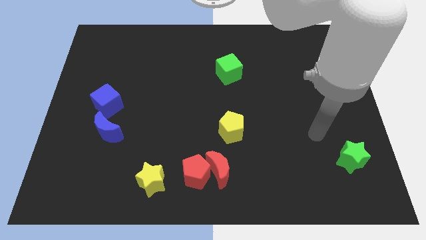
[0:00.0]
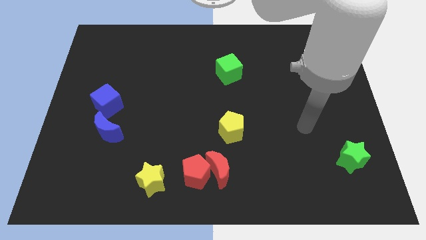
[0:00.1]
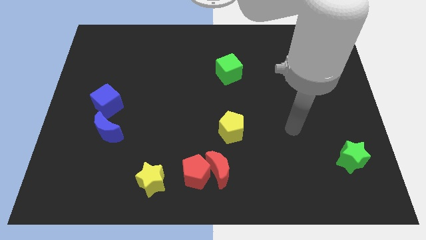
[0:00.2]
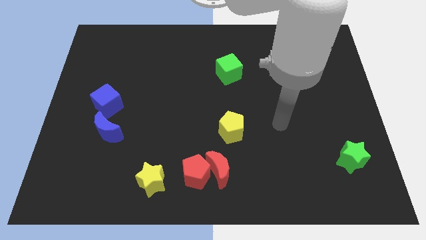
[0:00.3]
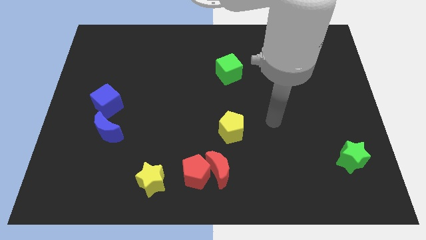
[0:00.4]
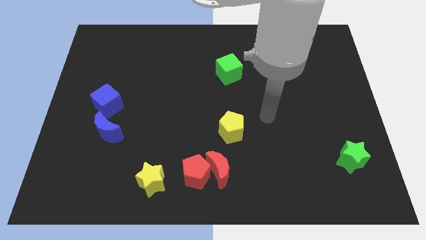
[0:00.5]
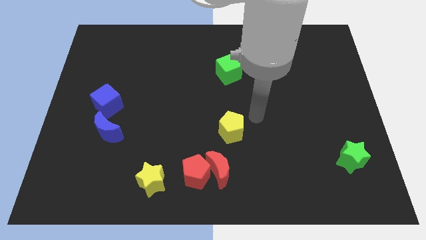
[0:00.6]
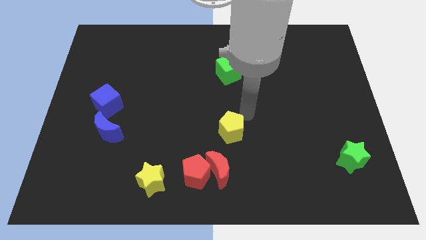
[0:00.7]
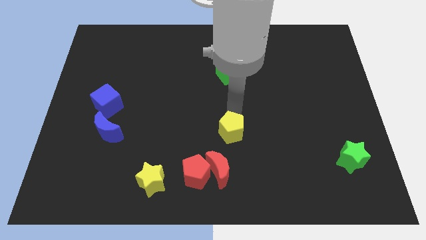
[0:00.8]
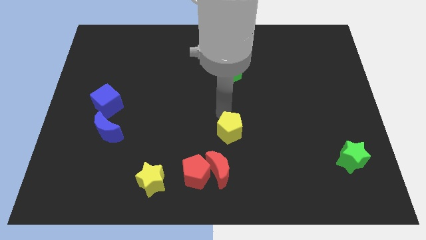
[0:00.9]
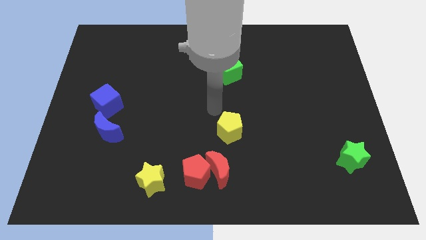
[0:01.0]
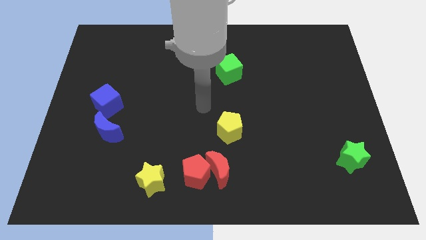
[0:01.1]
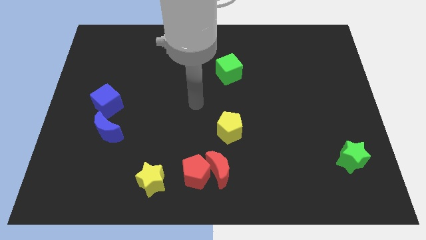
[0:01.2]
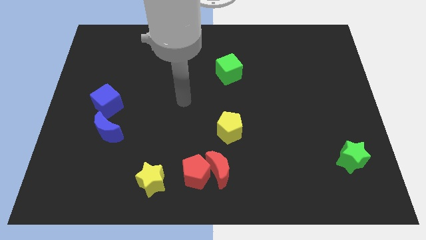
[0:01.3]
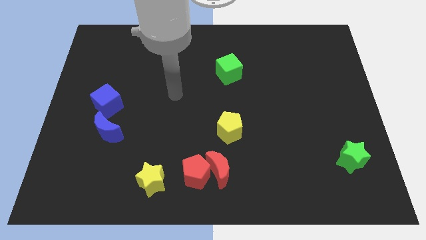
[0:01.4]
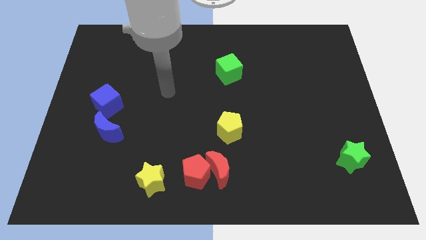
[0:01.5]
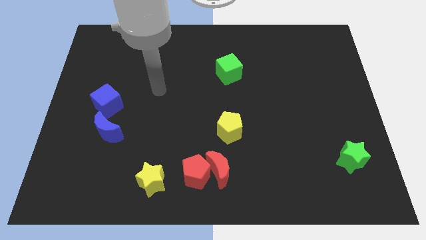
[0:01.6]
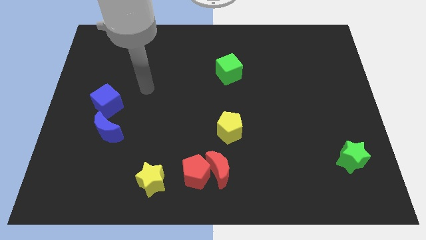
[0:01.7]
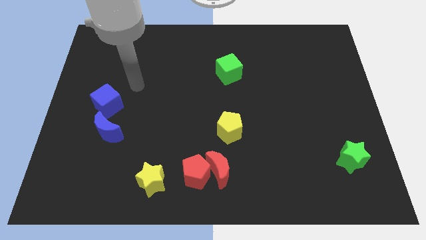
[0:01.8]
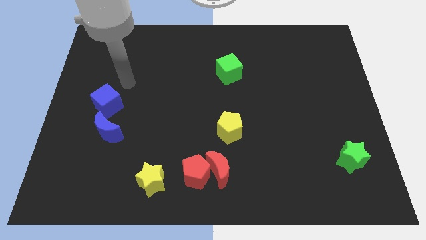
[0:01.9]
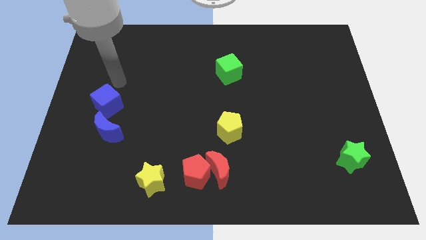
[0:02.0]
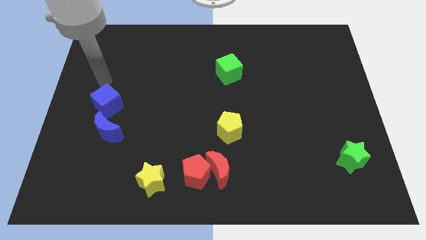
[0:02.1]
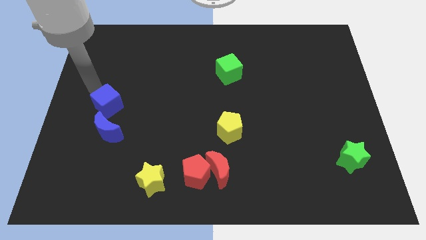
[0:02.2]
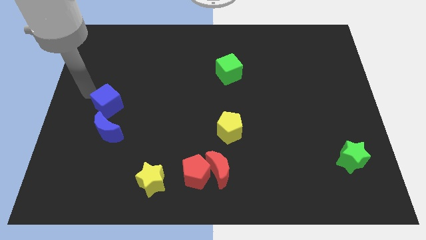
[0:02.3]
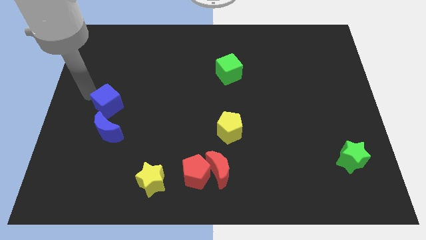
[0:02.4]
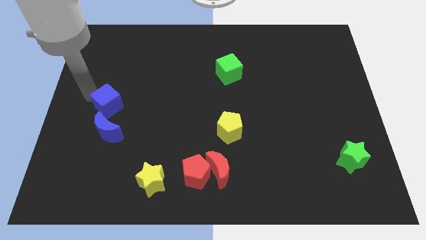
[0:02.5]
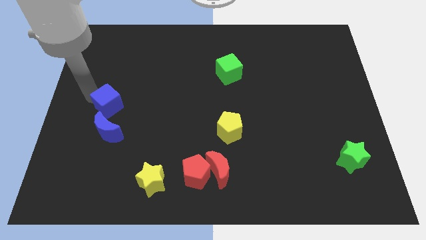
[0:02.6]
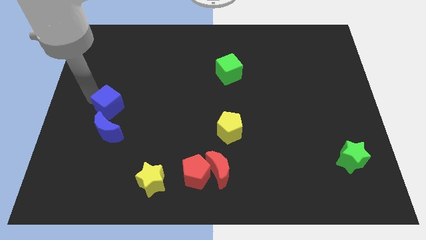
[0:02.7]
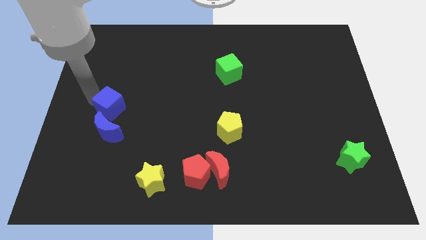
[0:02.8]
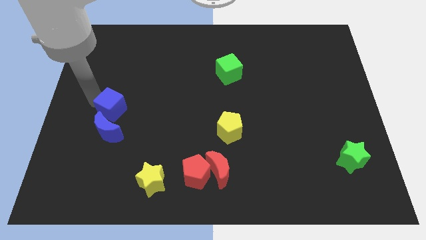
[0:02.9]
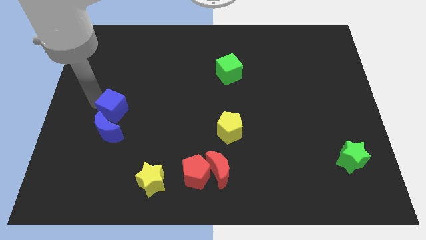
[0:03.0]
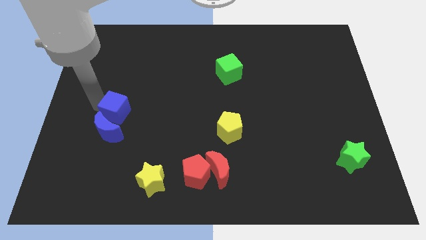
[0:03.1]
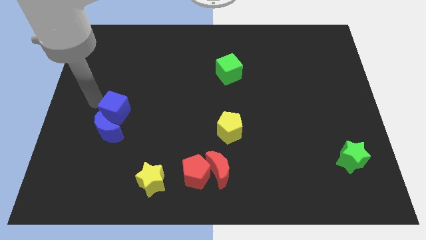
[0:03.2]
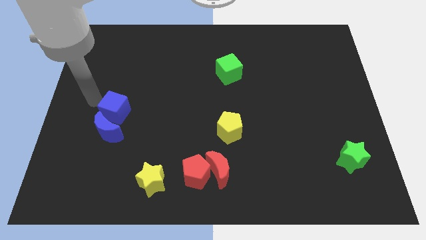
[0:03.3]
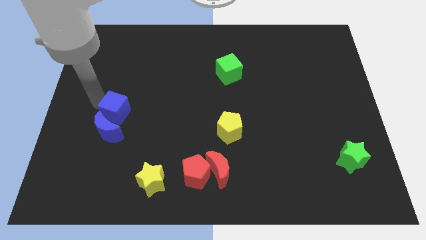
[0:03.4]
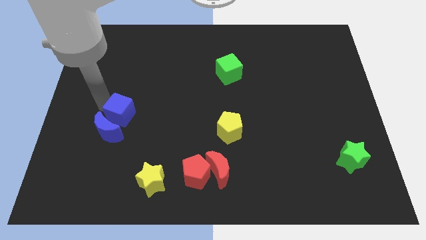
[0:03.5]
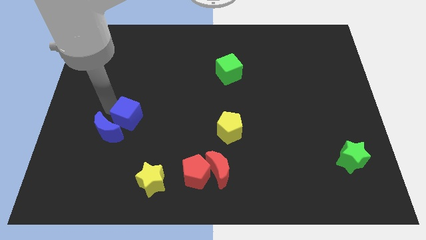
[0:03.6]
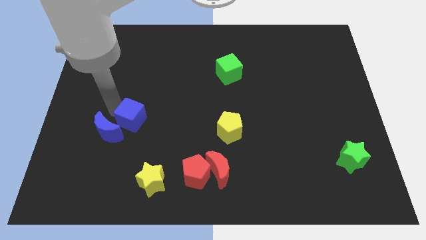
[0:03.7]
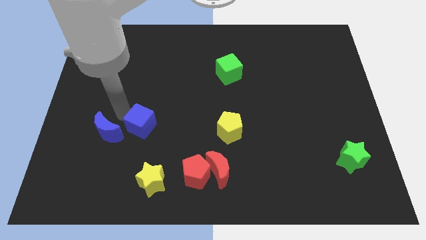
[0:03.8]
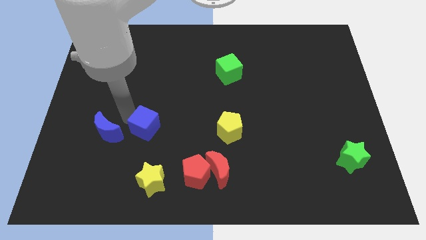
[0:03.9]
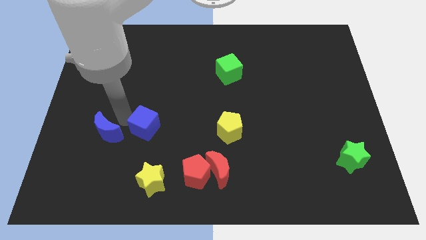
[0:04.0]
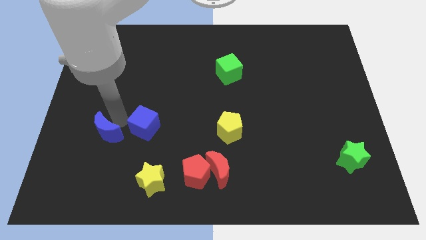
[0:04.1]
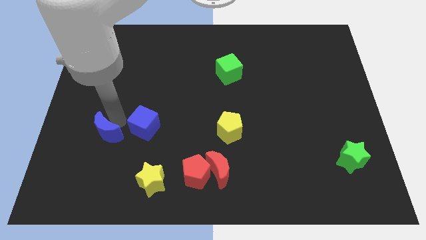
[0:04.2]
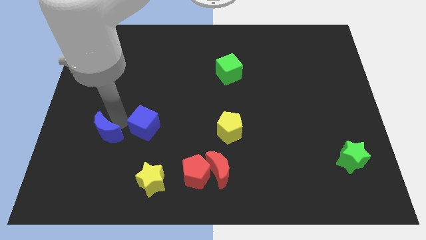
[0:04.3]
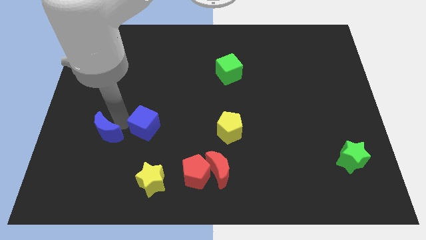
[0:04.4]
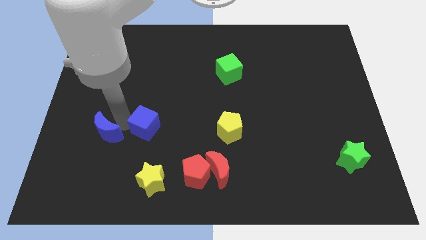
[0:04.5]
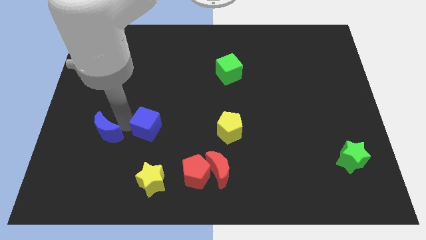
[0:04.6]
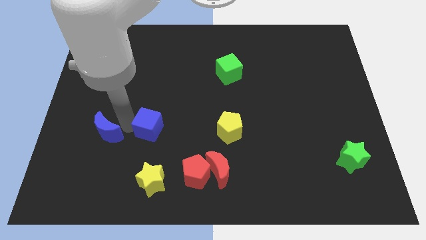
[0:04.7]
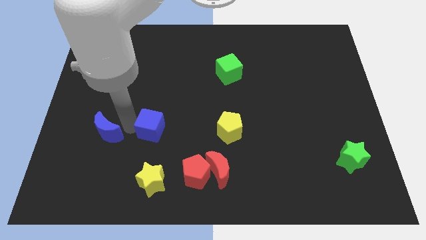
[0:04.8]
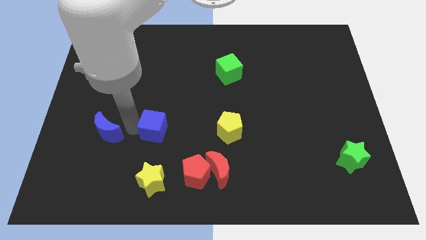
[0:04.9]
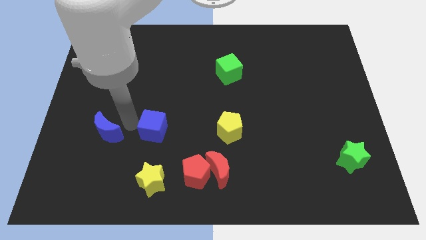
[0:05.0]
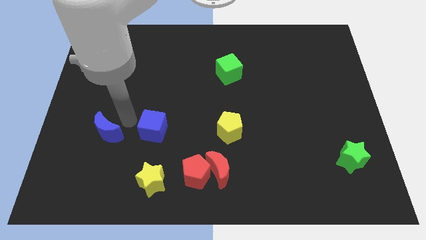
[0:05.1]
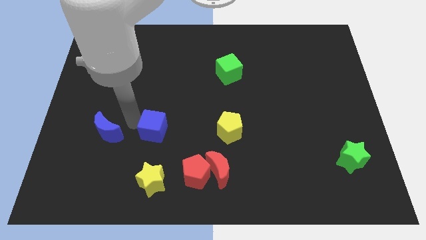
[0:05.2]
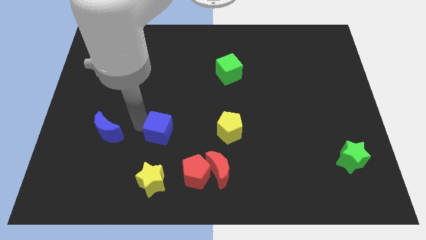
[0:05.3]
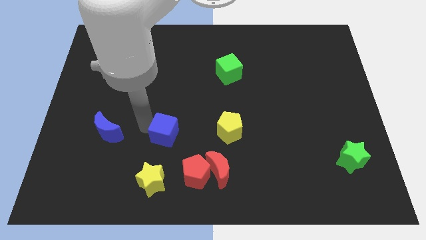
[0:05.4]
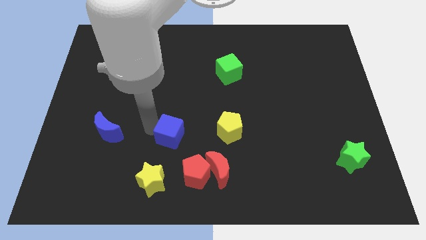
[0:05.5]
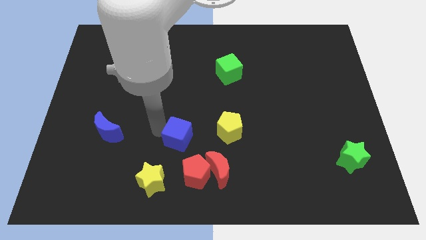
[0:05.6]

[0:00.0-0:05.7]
slide the blue cube diagonally up and to the left of the red moon

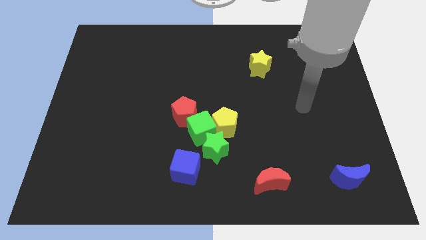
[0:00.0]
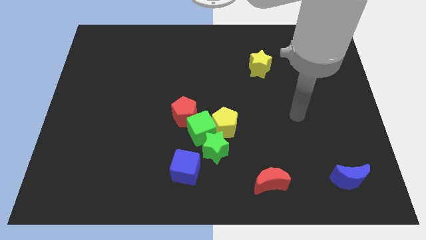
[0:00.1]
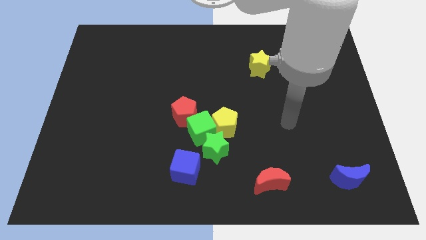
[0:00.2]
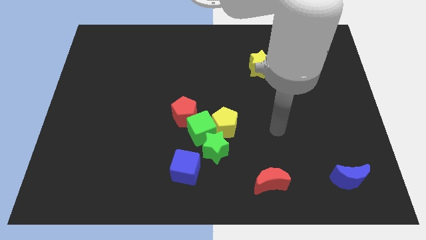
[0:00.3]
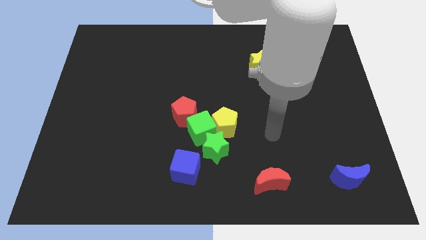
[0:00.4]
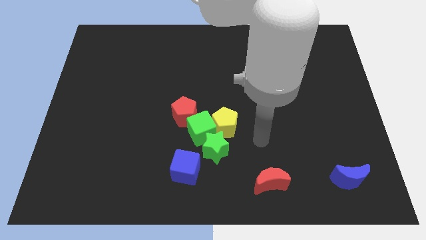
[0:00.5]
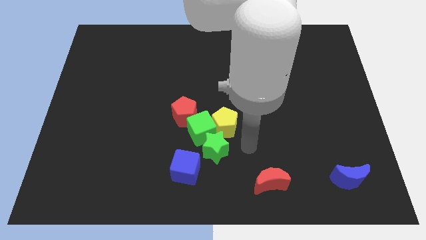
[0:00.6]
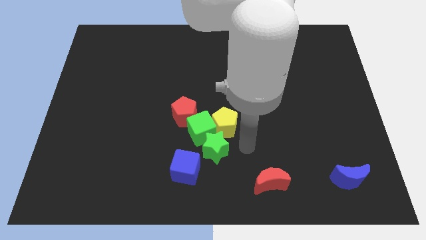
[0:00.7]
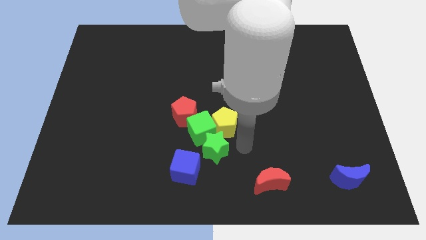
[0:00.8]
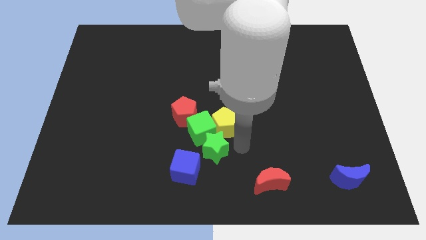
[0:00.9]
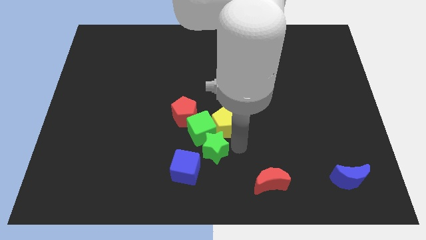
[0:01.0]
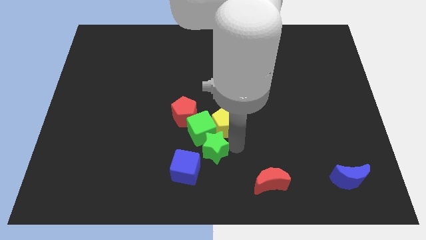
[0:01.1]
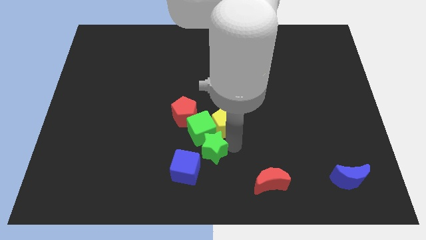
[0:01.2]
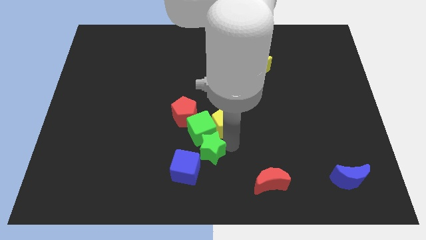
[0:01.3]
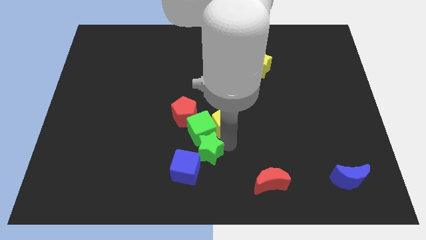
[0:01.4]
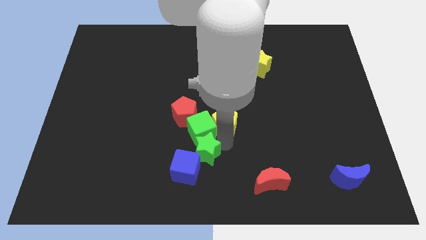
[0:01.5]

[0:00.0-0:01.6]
push the green star to the bottom left of the green cube

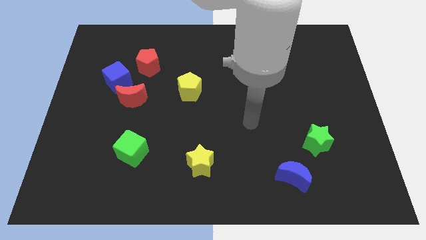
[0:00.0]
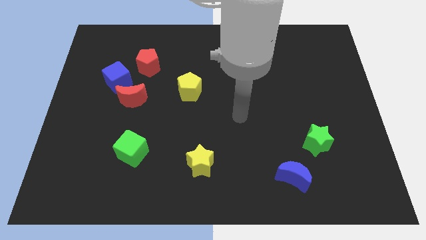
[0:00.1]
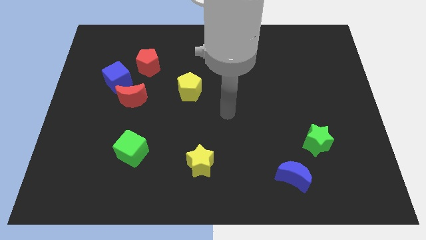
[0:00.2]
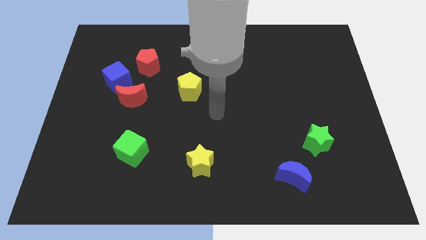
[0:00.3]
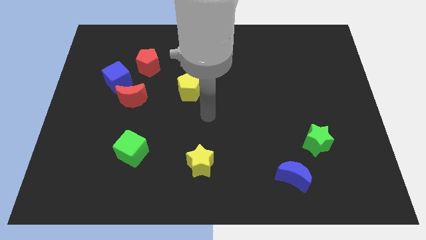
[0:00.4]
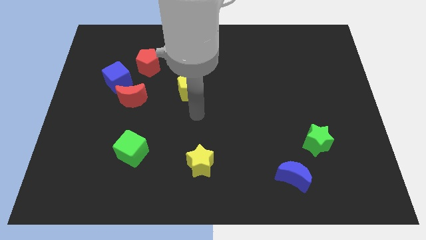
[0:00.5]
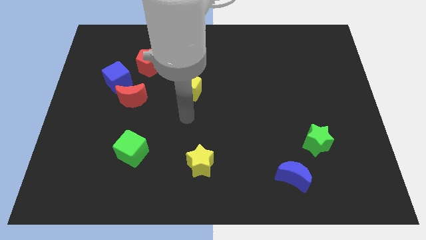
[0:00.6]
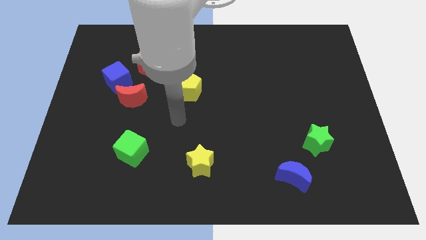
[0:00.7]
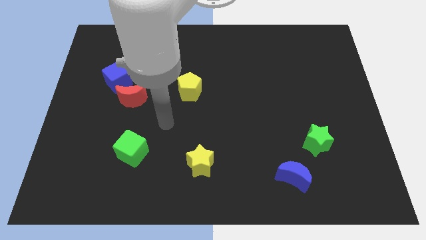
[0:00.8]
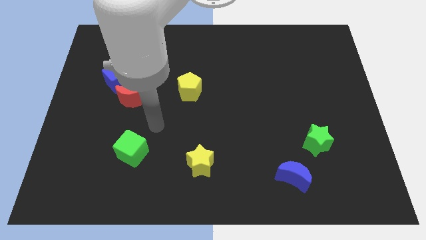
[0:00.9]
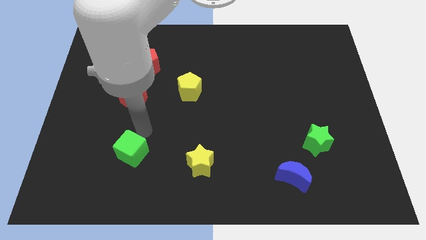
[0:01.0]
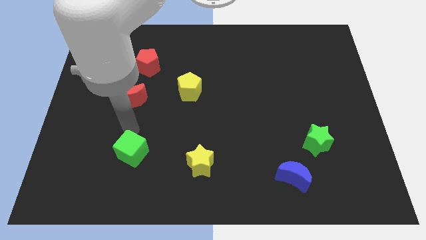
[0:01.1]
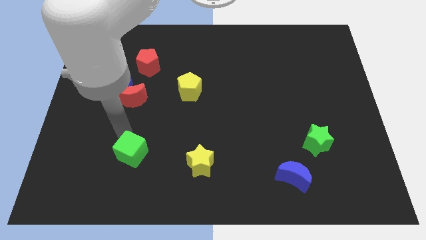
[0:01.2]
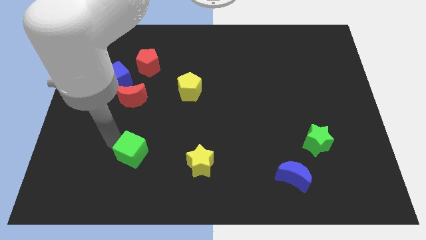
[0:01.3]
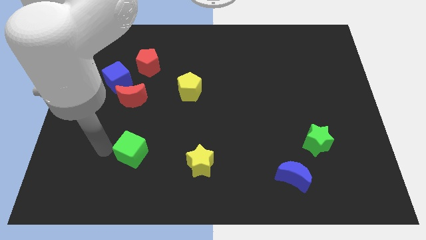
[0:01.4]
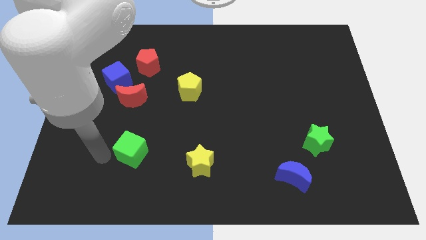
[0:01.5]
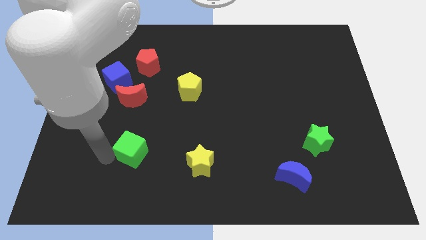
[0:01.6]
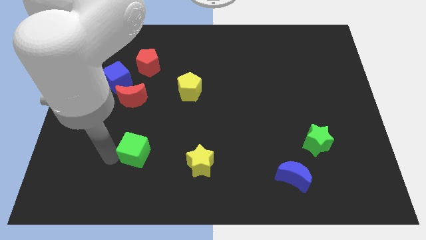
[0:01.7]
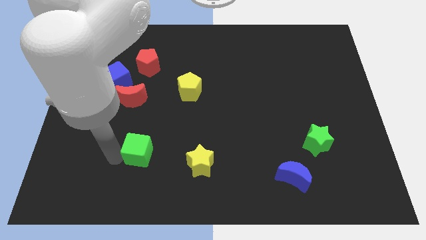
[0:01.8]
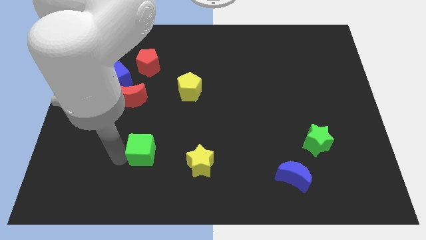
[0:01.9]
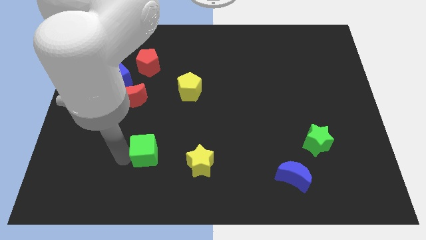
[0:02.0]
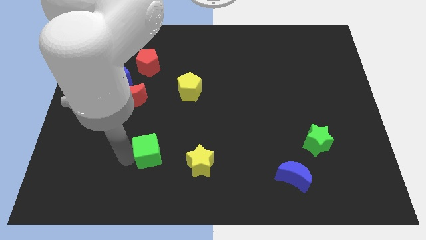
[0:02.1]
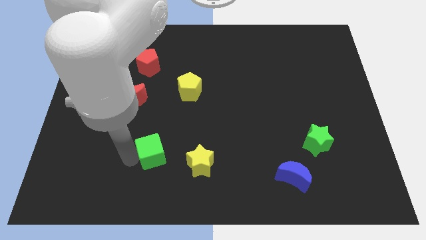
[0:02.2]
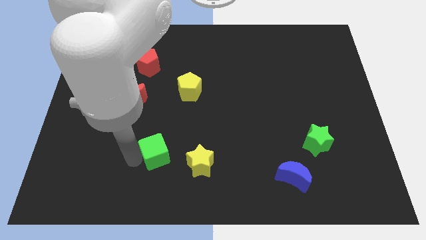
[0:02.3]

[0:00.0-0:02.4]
put the green cube diagonally up and to the left of the yellow star
